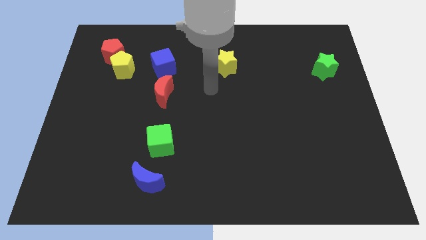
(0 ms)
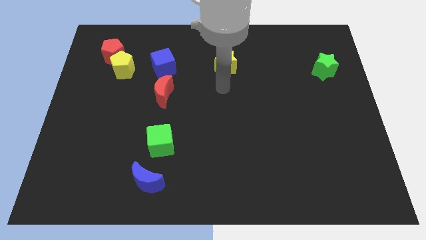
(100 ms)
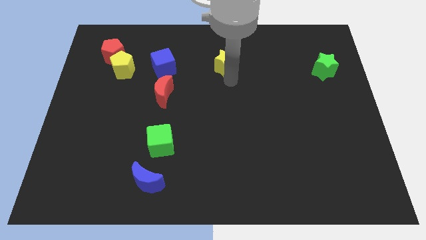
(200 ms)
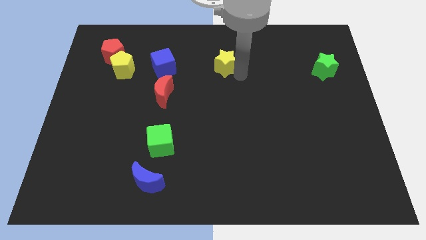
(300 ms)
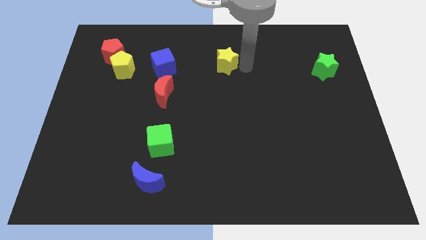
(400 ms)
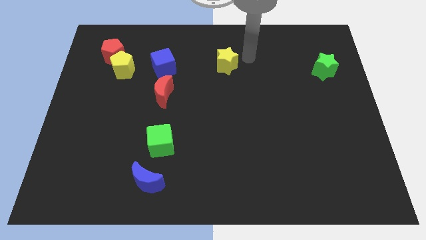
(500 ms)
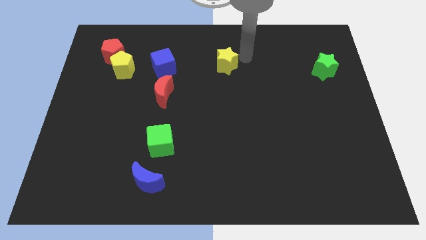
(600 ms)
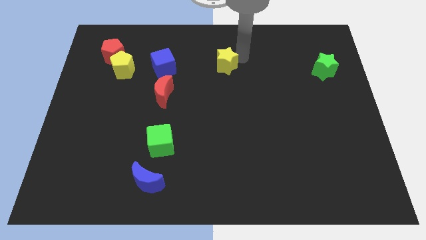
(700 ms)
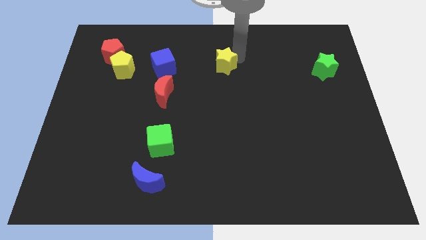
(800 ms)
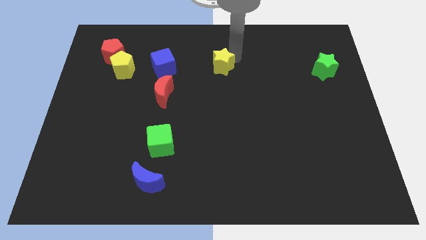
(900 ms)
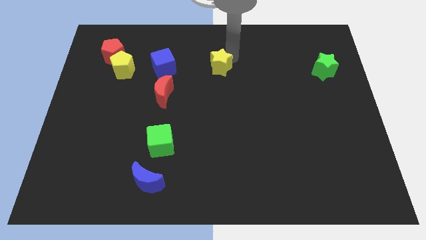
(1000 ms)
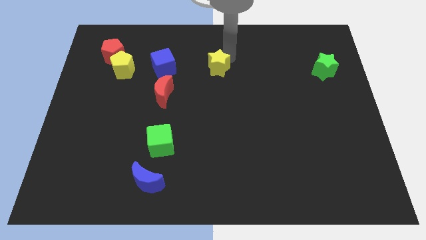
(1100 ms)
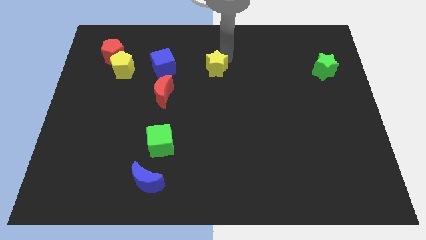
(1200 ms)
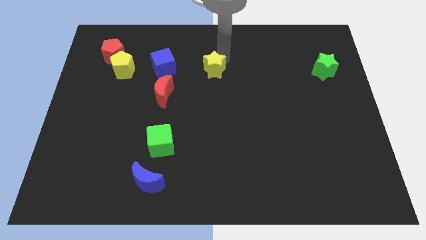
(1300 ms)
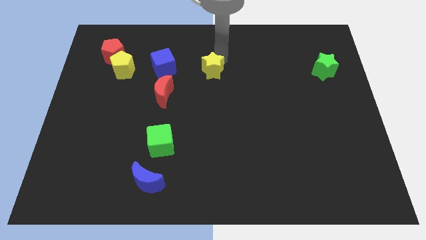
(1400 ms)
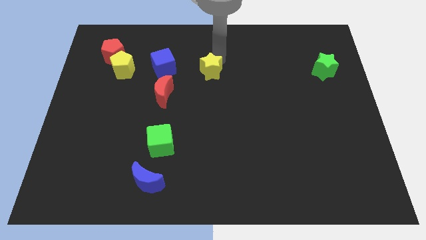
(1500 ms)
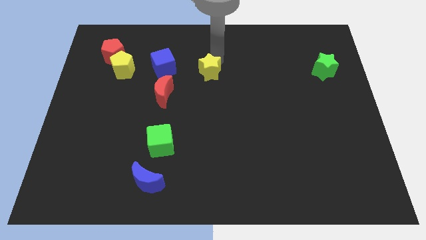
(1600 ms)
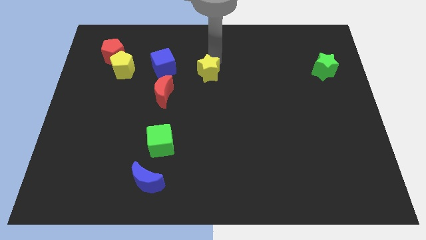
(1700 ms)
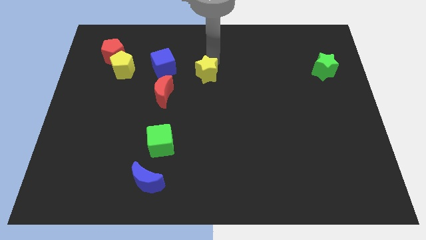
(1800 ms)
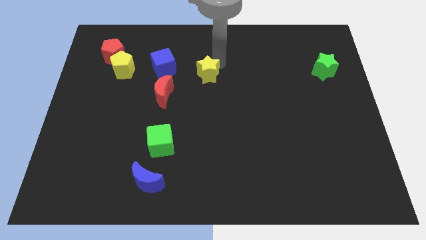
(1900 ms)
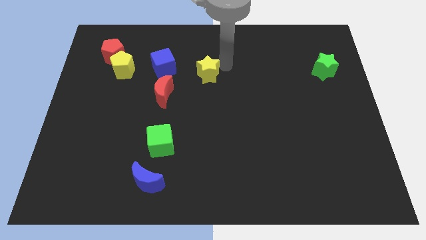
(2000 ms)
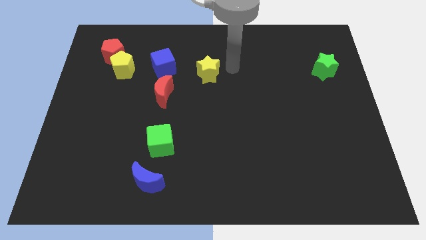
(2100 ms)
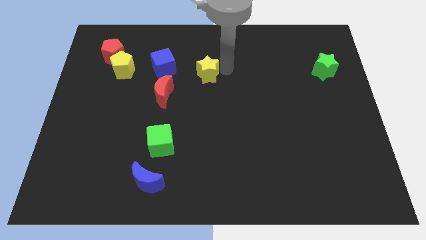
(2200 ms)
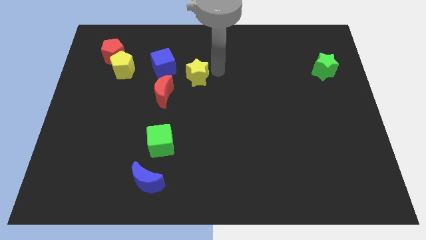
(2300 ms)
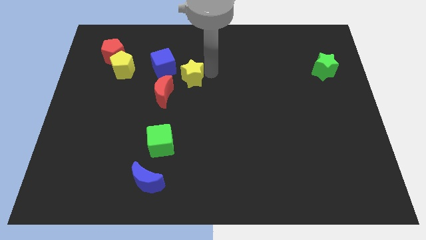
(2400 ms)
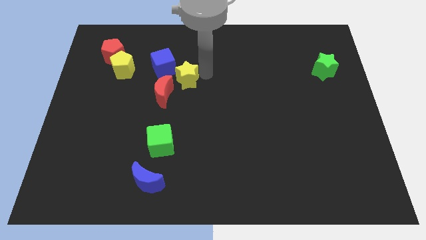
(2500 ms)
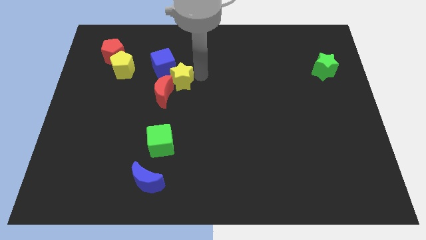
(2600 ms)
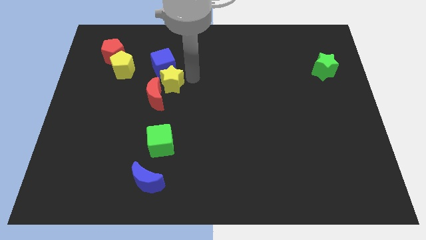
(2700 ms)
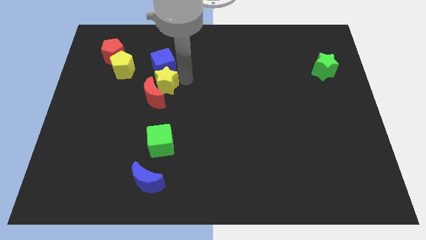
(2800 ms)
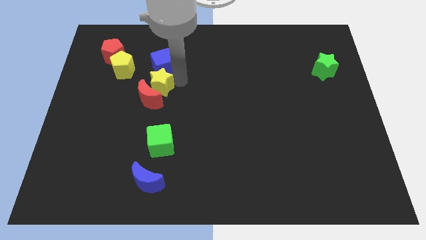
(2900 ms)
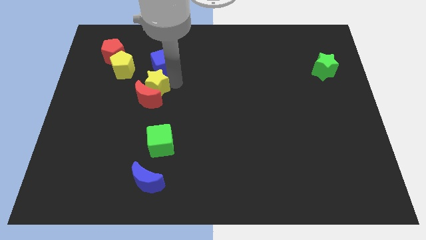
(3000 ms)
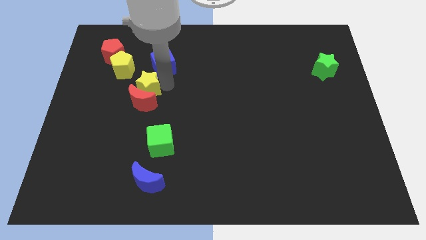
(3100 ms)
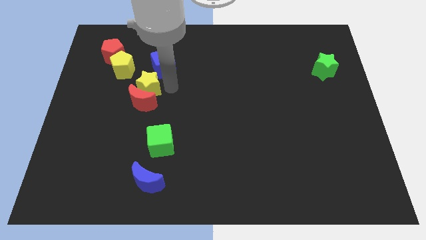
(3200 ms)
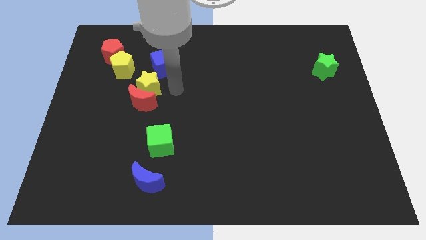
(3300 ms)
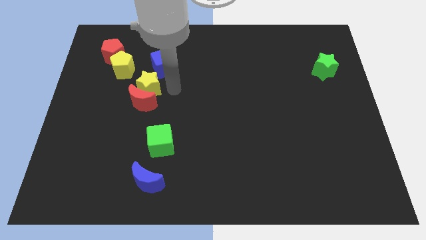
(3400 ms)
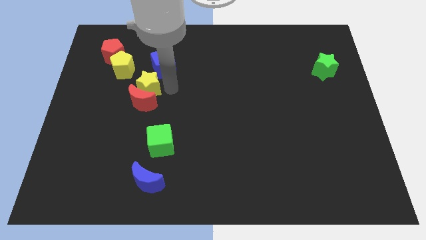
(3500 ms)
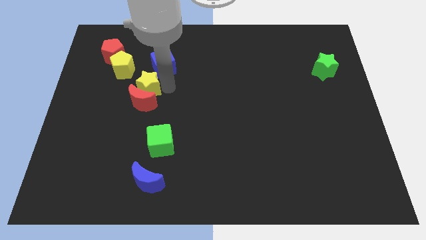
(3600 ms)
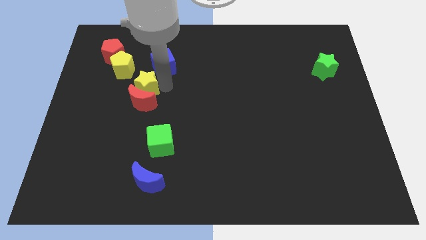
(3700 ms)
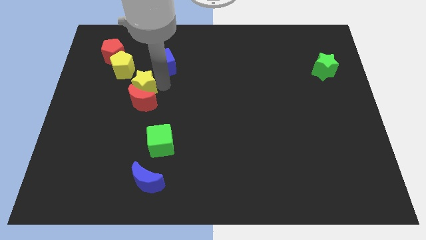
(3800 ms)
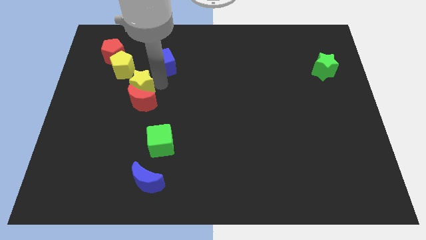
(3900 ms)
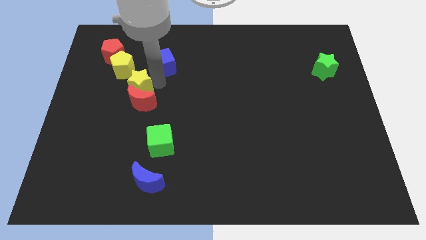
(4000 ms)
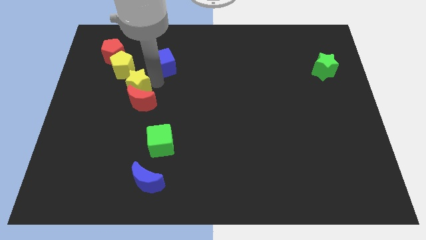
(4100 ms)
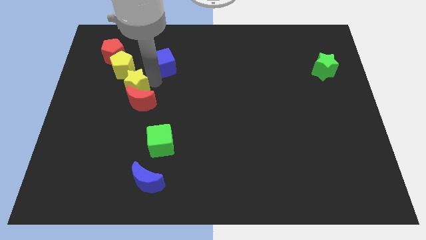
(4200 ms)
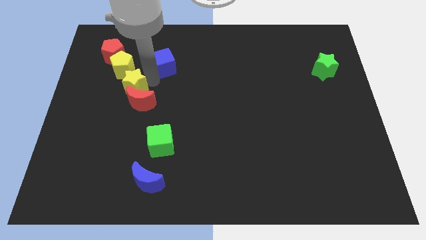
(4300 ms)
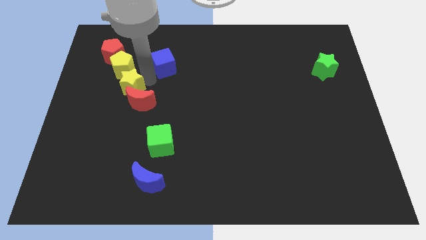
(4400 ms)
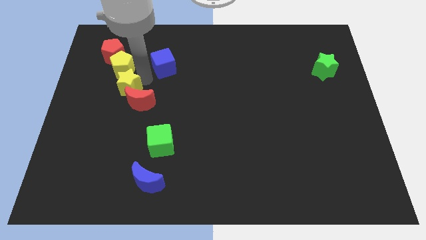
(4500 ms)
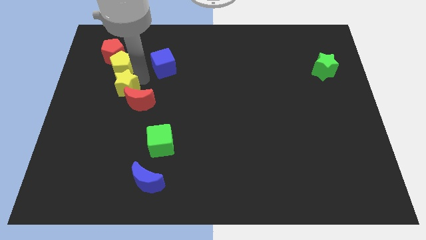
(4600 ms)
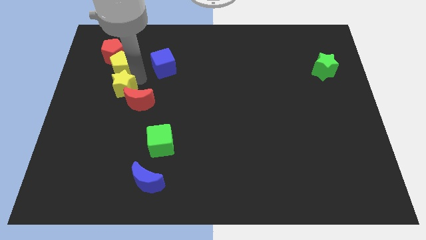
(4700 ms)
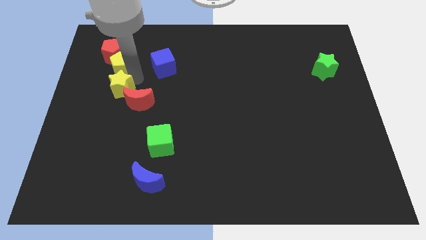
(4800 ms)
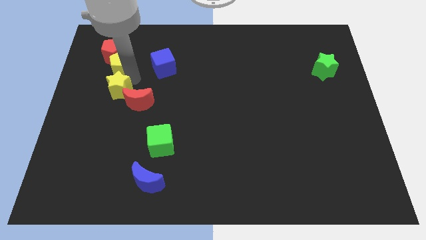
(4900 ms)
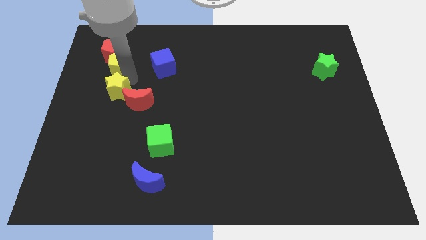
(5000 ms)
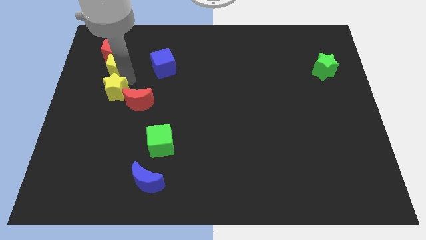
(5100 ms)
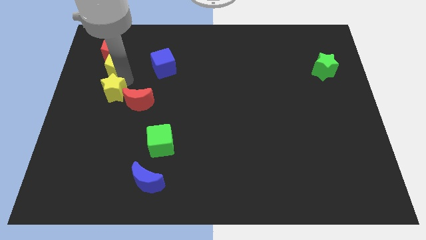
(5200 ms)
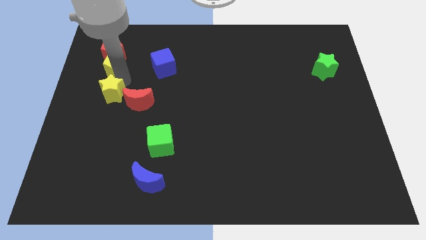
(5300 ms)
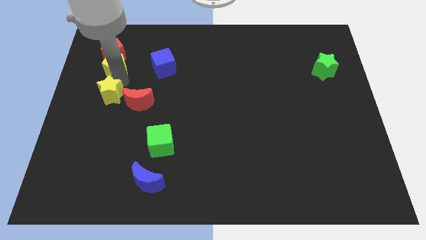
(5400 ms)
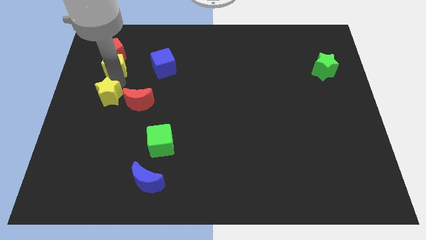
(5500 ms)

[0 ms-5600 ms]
put the yellow star to the center left
